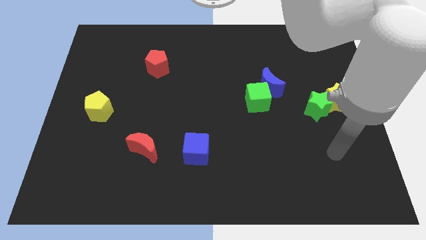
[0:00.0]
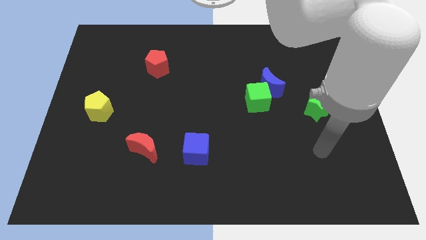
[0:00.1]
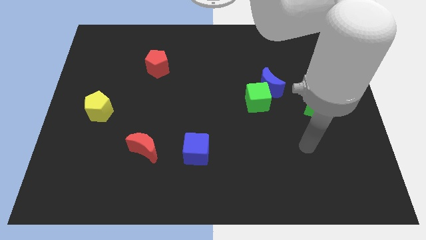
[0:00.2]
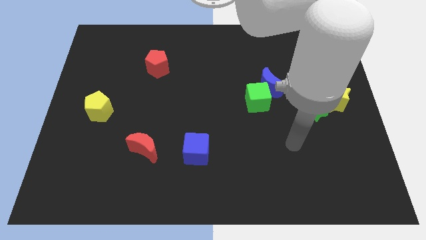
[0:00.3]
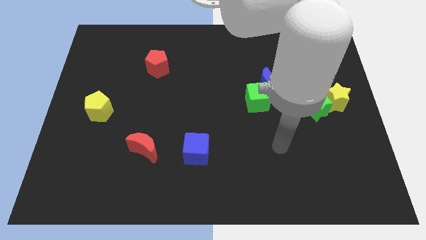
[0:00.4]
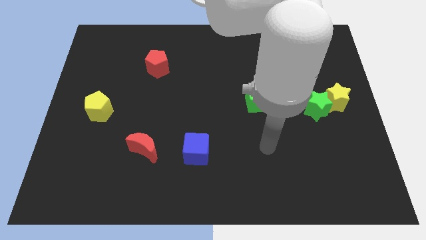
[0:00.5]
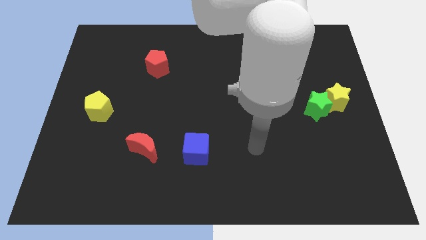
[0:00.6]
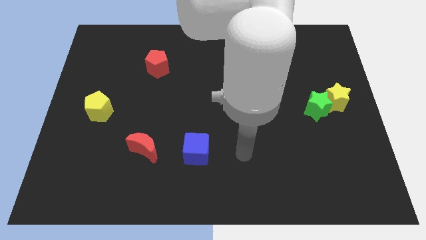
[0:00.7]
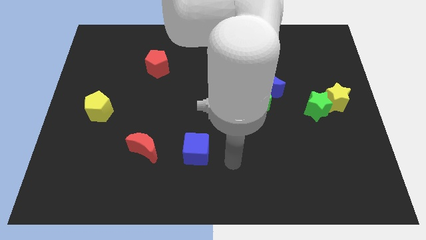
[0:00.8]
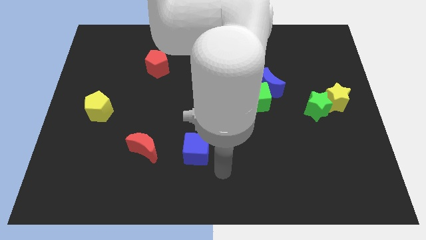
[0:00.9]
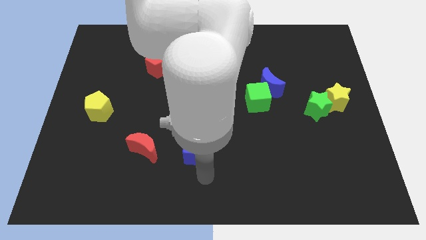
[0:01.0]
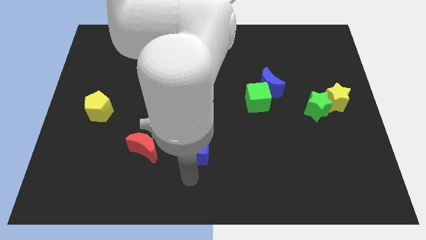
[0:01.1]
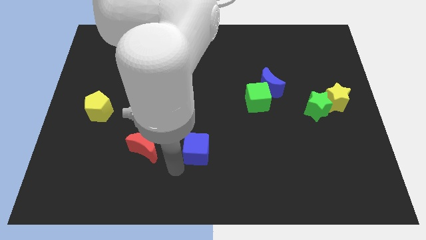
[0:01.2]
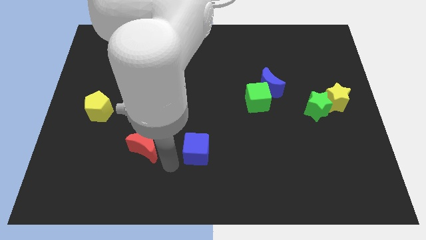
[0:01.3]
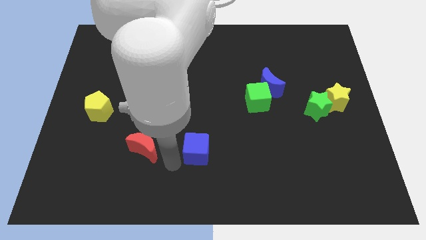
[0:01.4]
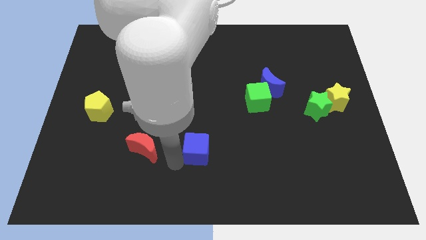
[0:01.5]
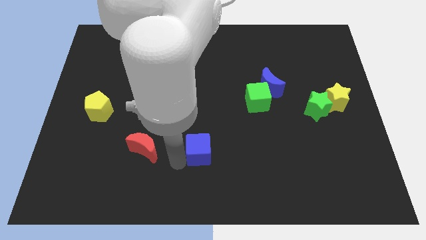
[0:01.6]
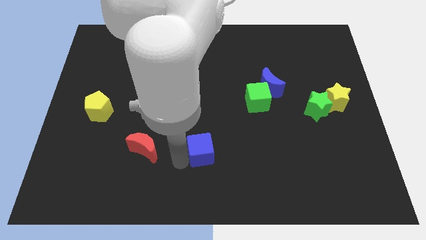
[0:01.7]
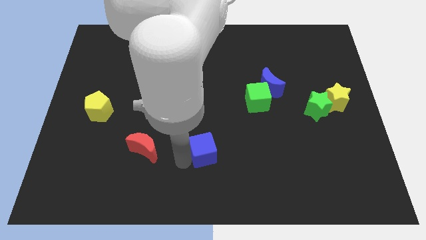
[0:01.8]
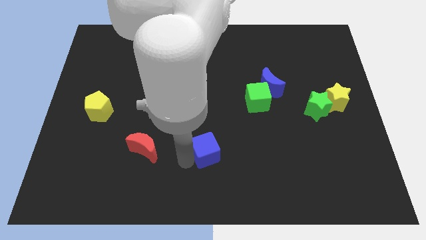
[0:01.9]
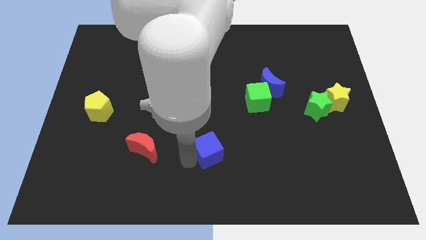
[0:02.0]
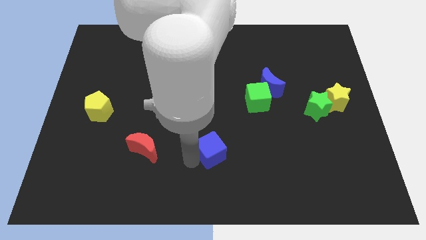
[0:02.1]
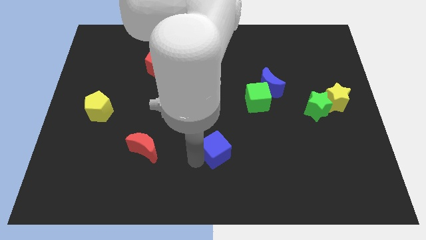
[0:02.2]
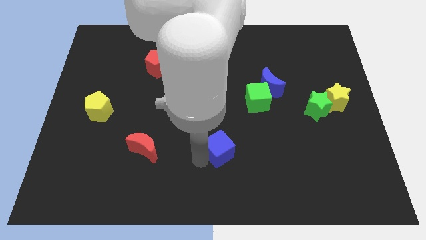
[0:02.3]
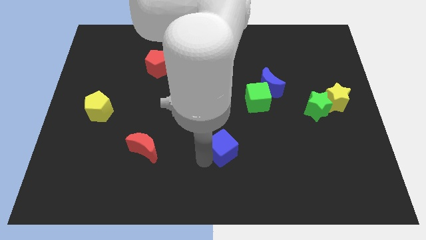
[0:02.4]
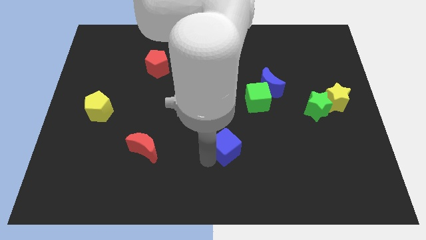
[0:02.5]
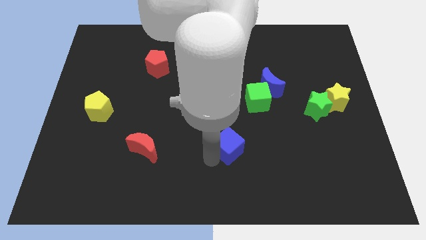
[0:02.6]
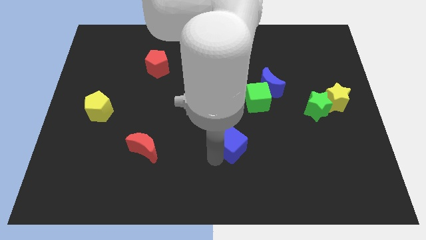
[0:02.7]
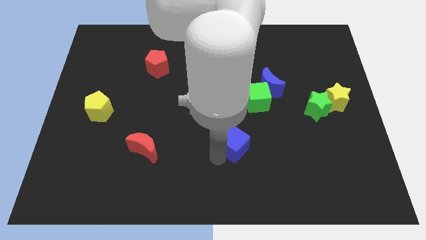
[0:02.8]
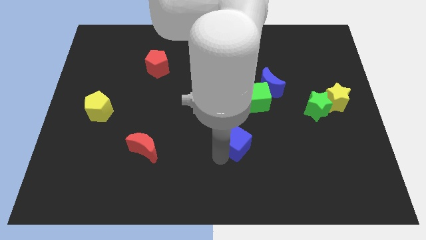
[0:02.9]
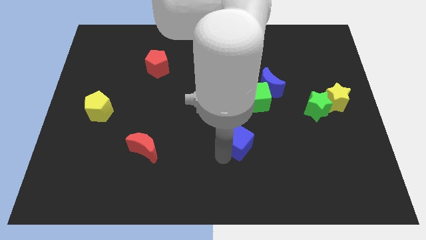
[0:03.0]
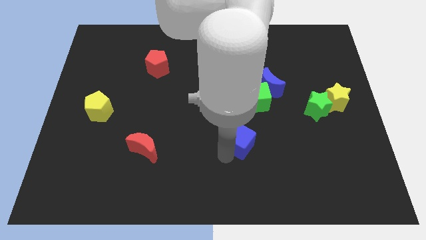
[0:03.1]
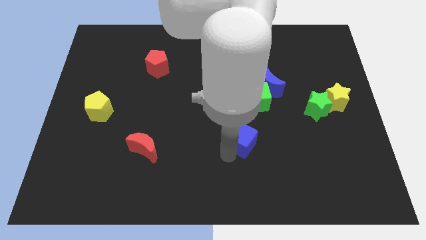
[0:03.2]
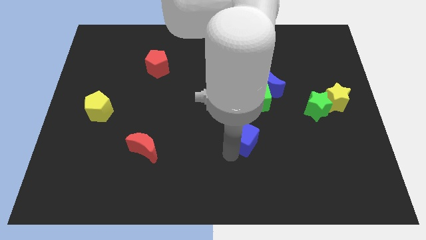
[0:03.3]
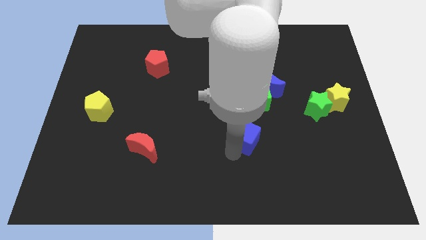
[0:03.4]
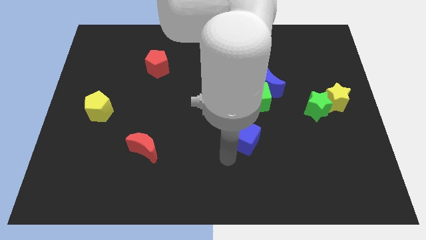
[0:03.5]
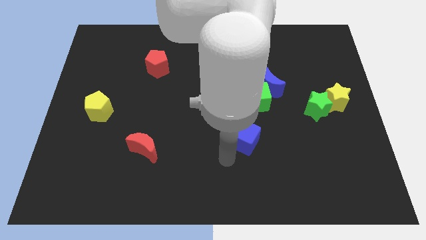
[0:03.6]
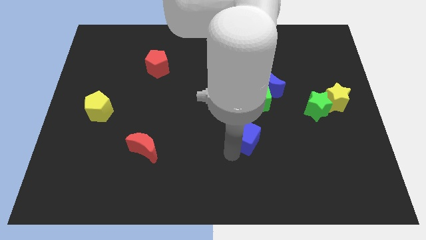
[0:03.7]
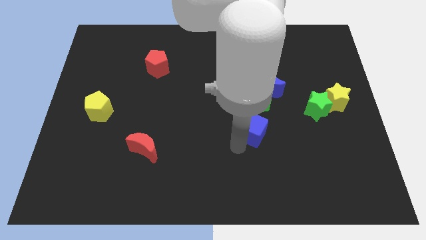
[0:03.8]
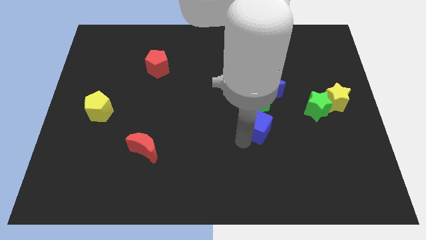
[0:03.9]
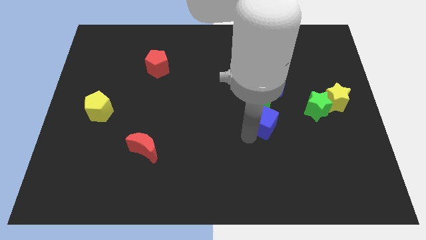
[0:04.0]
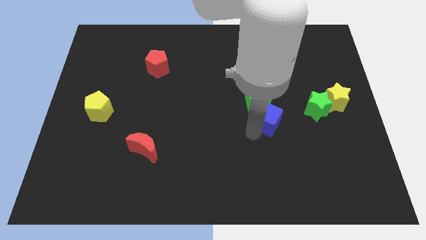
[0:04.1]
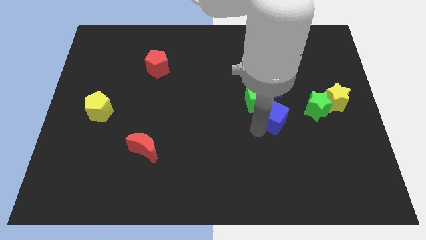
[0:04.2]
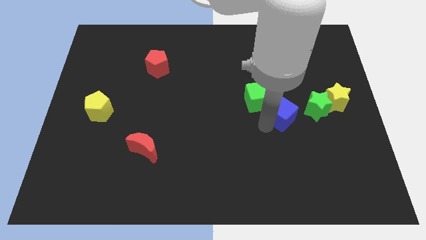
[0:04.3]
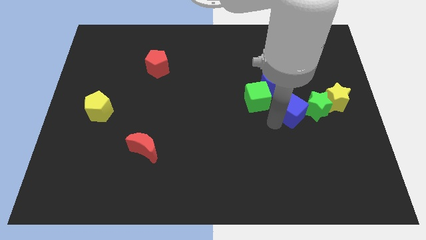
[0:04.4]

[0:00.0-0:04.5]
slide the blue cube up and right

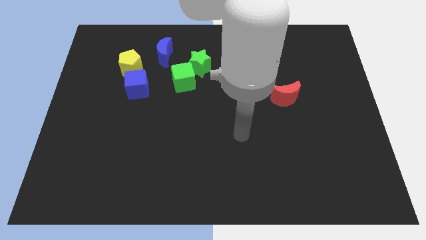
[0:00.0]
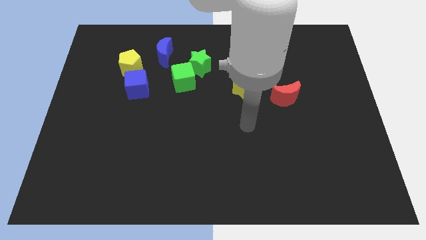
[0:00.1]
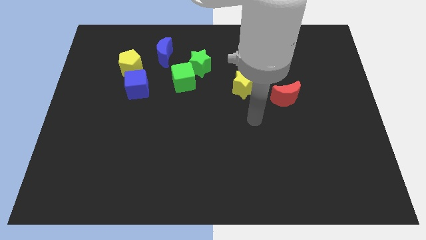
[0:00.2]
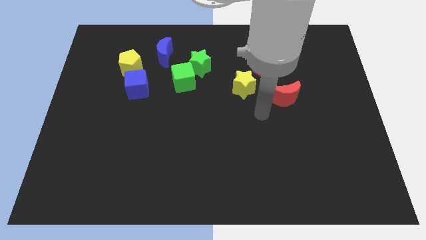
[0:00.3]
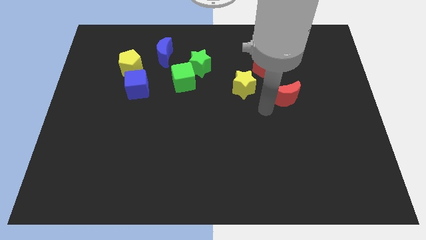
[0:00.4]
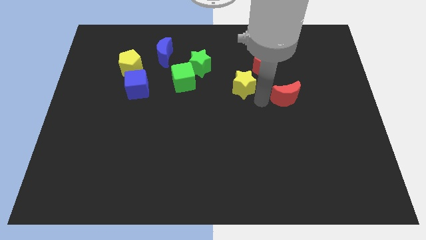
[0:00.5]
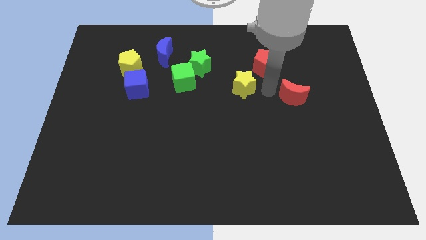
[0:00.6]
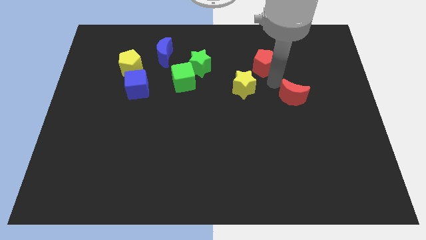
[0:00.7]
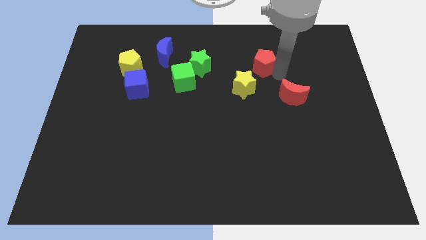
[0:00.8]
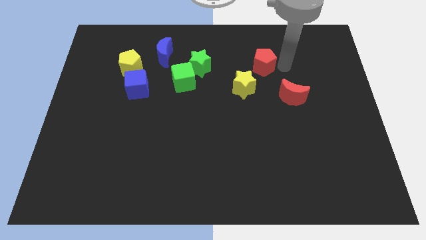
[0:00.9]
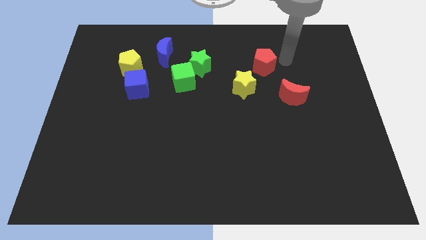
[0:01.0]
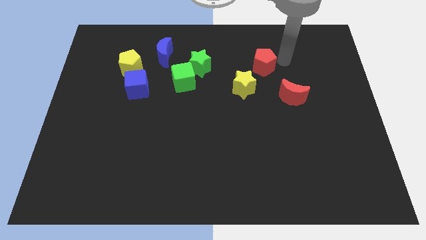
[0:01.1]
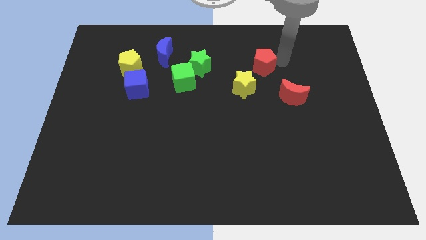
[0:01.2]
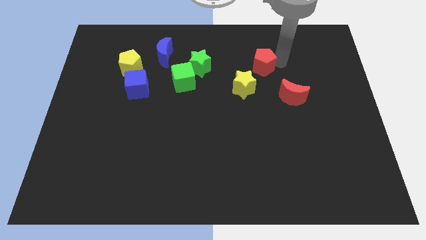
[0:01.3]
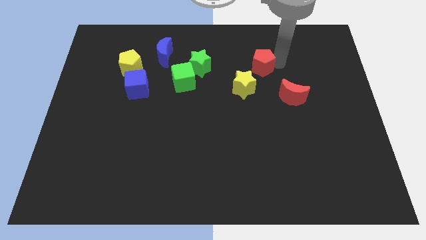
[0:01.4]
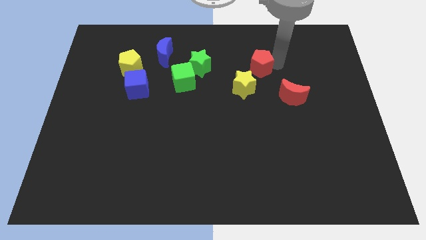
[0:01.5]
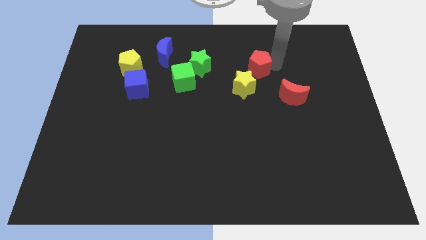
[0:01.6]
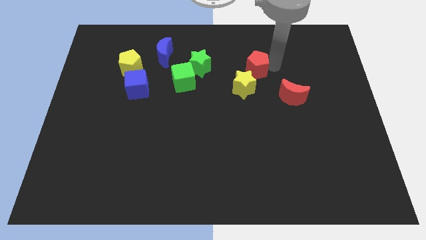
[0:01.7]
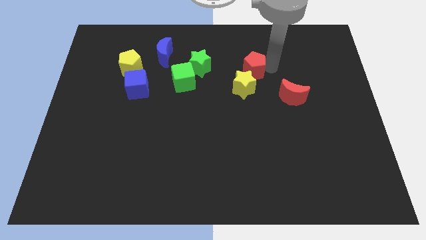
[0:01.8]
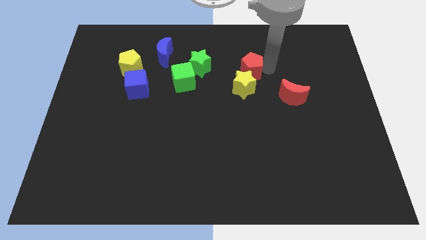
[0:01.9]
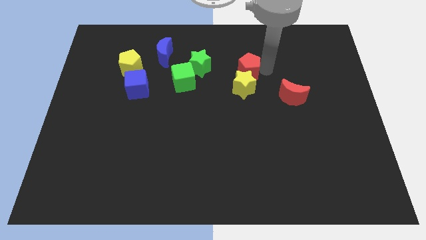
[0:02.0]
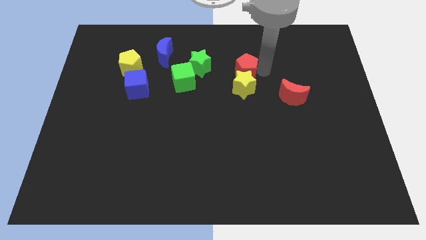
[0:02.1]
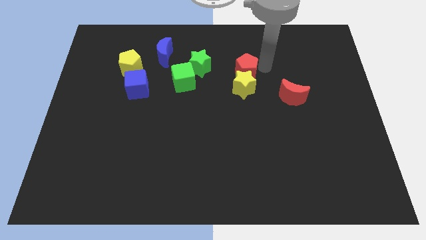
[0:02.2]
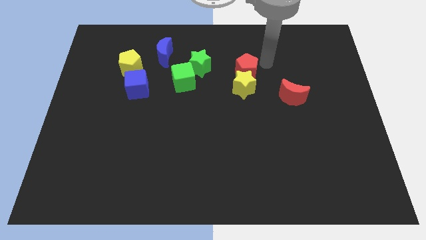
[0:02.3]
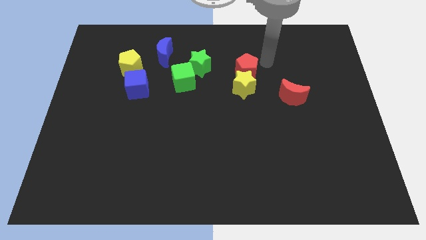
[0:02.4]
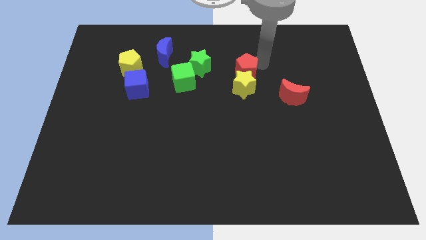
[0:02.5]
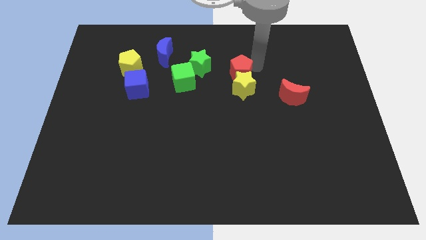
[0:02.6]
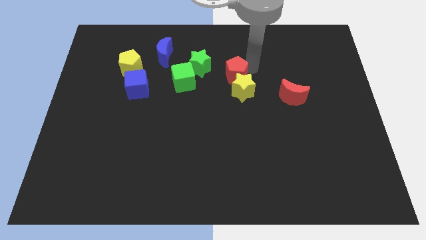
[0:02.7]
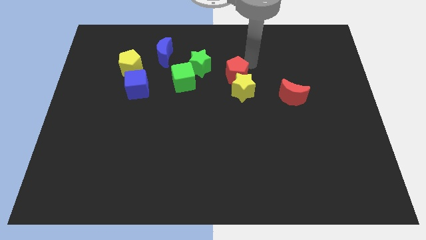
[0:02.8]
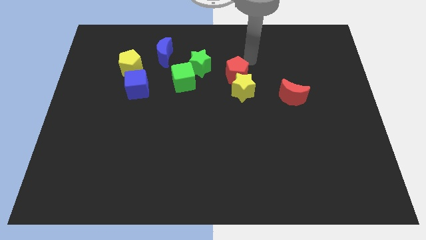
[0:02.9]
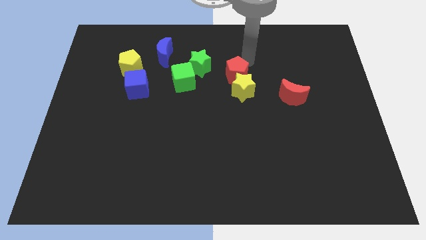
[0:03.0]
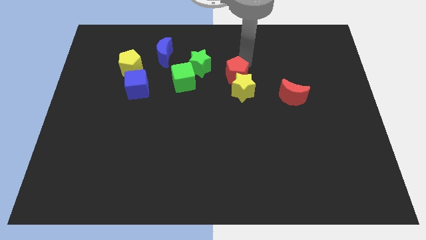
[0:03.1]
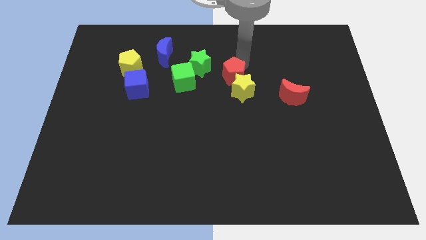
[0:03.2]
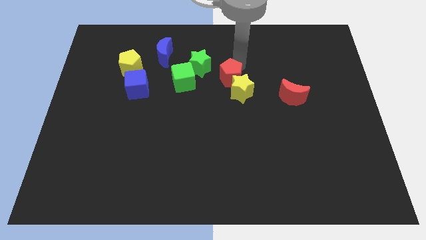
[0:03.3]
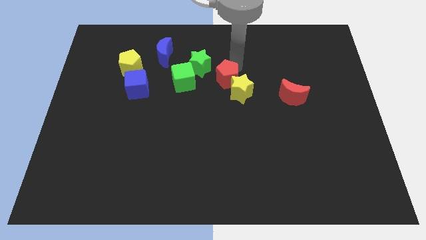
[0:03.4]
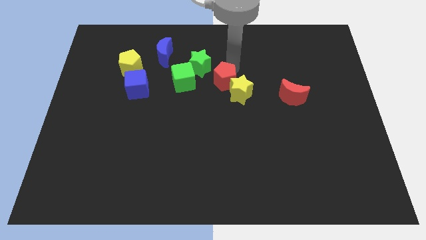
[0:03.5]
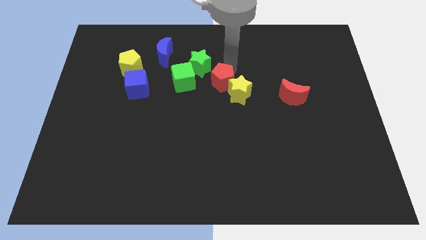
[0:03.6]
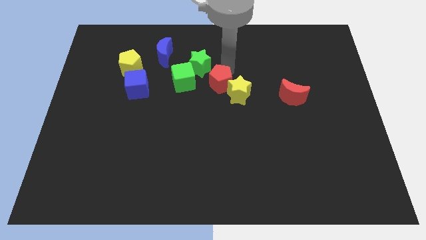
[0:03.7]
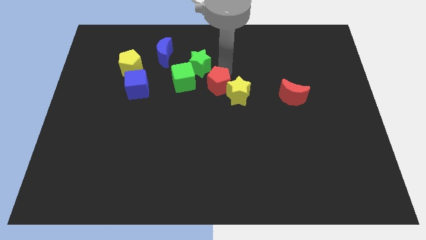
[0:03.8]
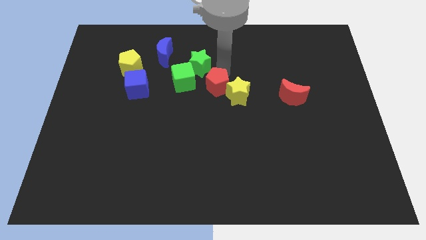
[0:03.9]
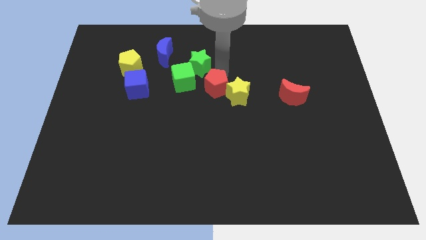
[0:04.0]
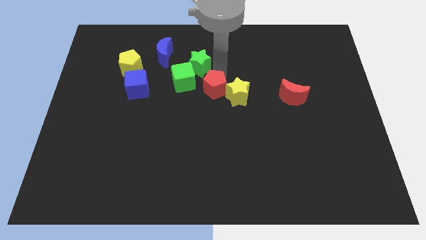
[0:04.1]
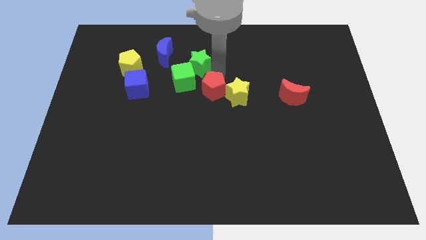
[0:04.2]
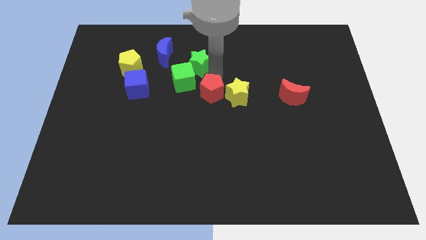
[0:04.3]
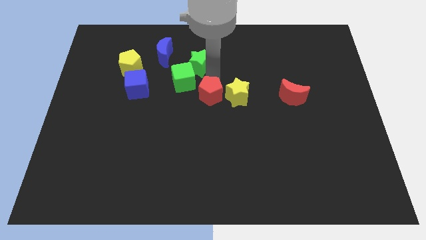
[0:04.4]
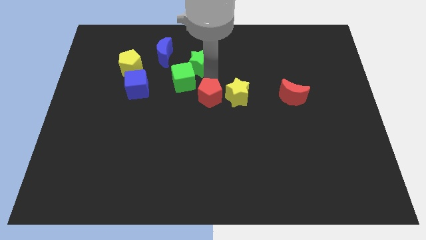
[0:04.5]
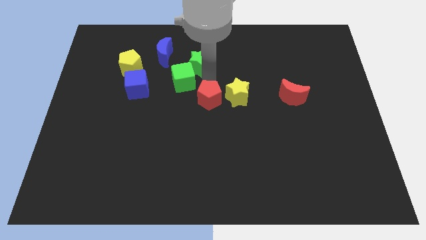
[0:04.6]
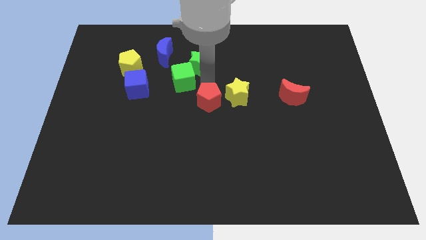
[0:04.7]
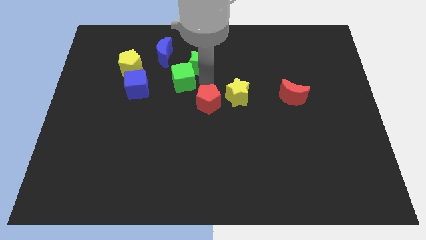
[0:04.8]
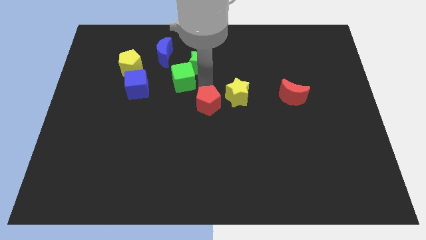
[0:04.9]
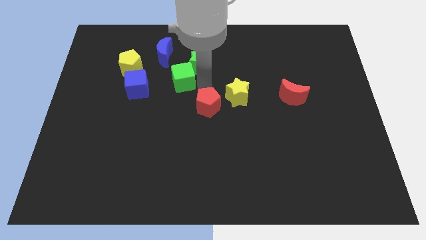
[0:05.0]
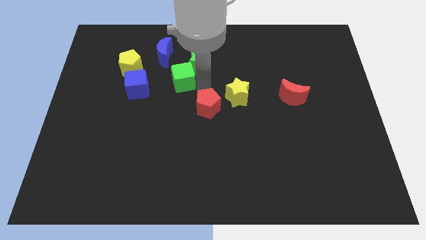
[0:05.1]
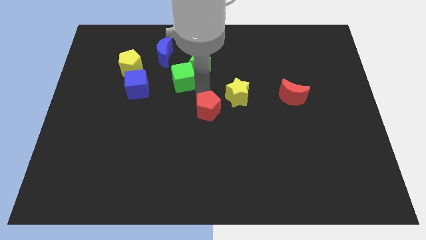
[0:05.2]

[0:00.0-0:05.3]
slide the red pentagon downwards and then left
